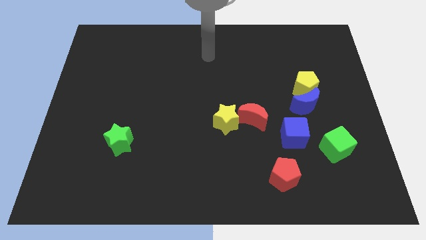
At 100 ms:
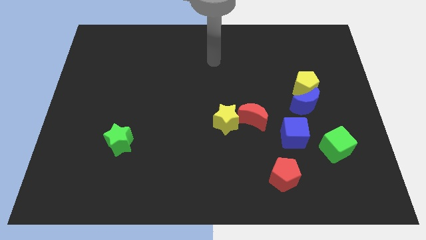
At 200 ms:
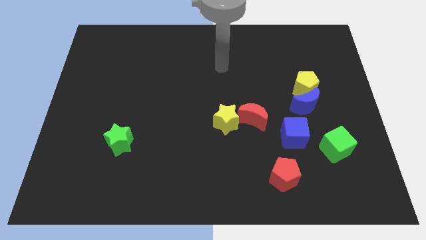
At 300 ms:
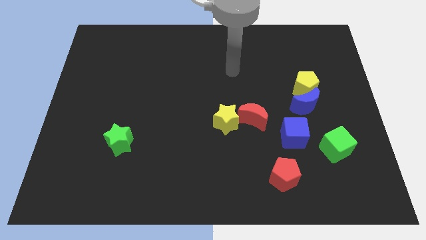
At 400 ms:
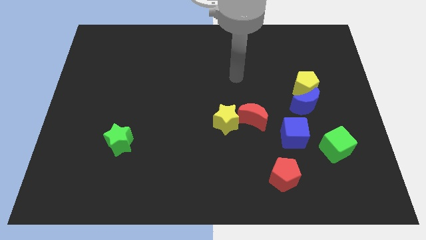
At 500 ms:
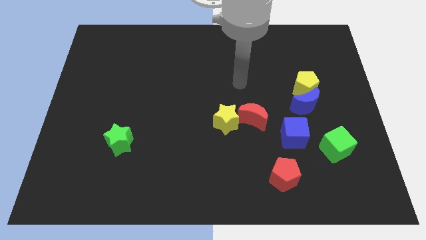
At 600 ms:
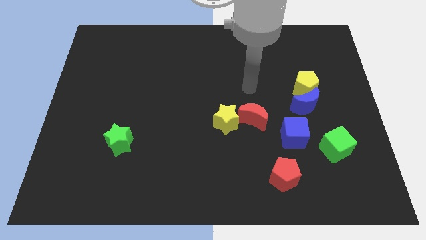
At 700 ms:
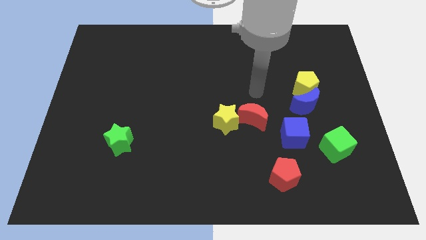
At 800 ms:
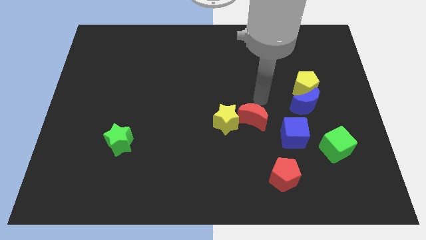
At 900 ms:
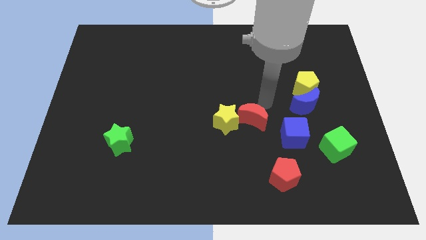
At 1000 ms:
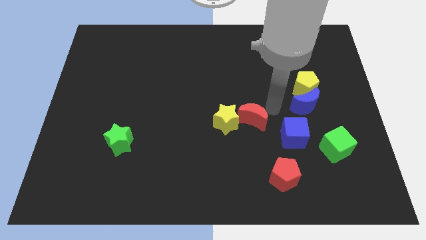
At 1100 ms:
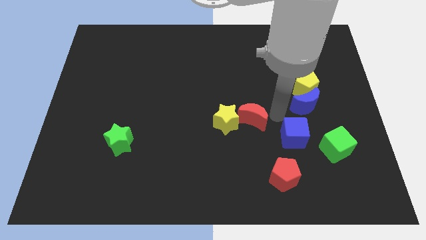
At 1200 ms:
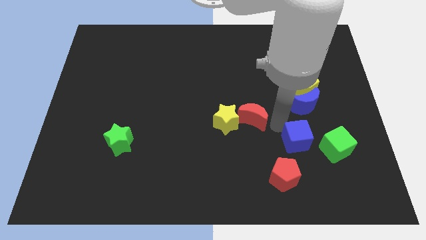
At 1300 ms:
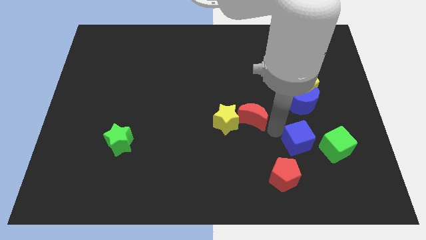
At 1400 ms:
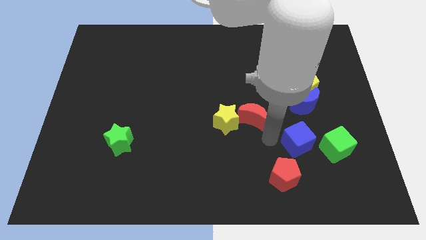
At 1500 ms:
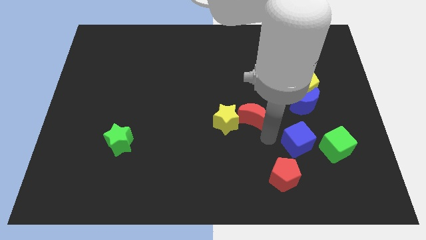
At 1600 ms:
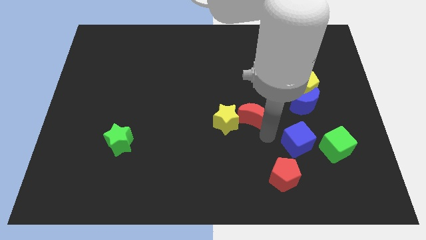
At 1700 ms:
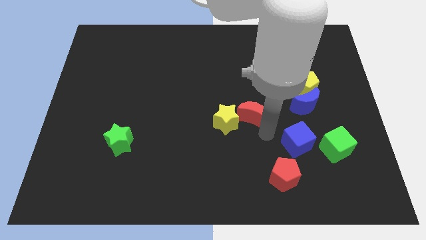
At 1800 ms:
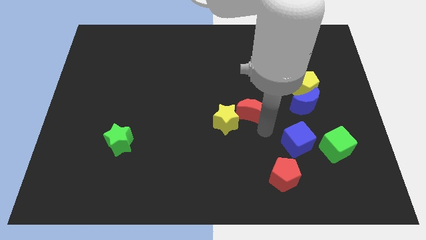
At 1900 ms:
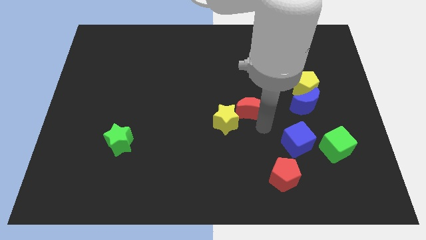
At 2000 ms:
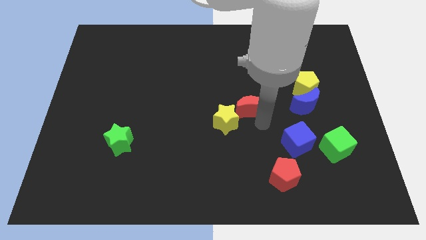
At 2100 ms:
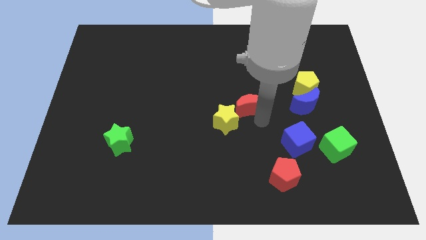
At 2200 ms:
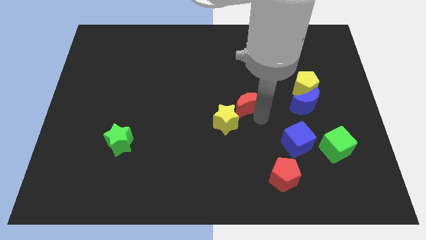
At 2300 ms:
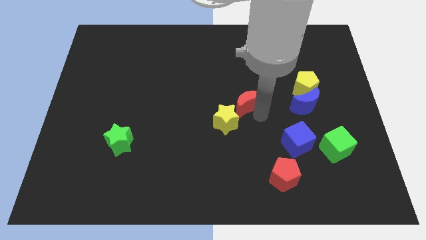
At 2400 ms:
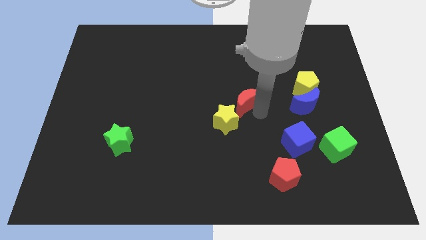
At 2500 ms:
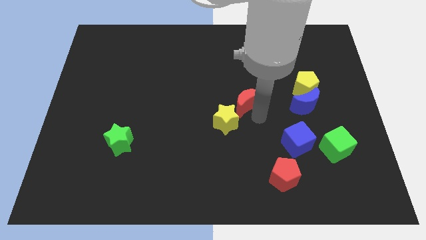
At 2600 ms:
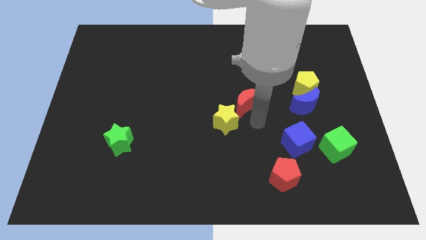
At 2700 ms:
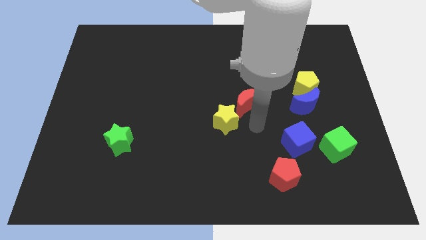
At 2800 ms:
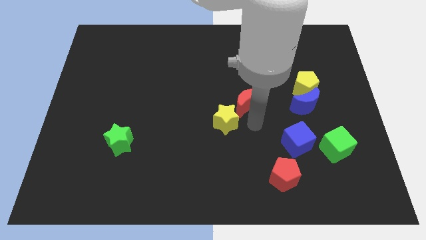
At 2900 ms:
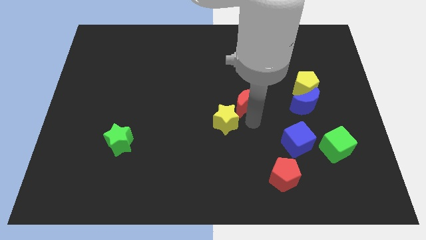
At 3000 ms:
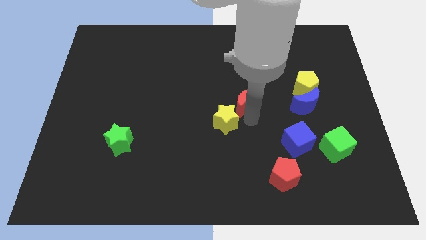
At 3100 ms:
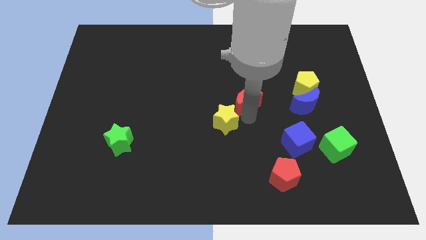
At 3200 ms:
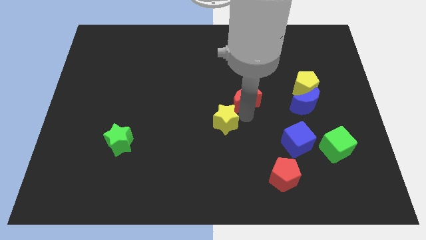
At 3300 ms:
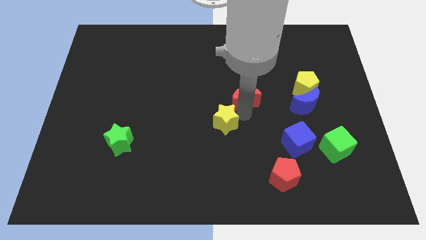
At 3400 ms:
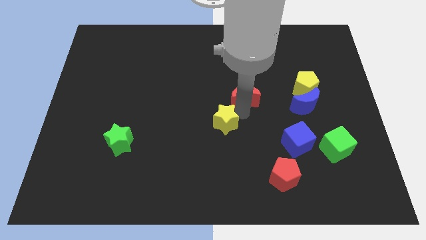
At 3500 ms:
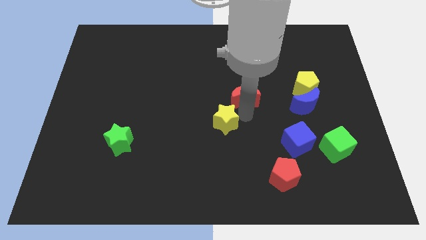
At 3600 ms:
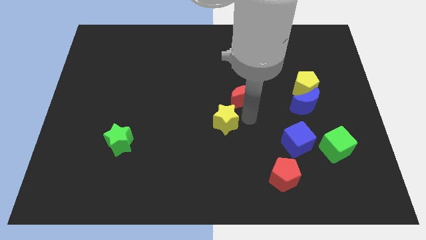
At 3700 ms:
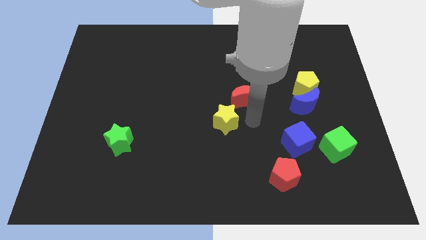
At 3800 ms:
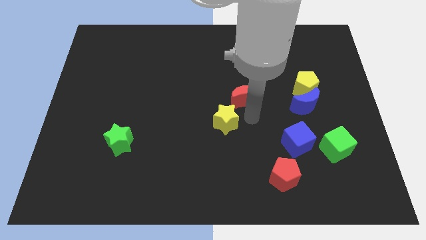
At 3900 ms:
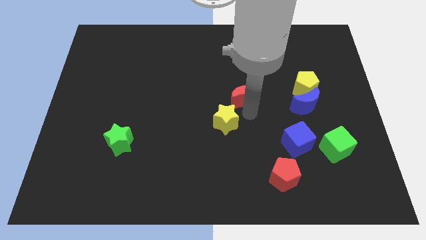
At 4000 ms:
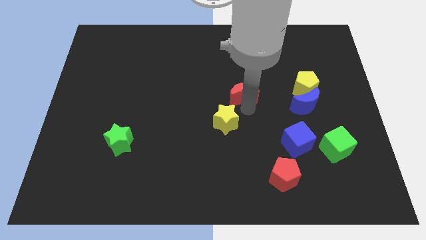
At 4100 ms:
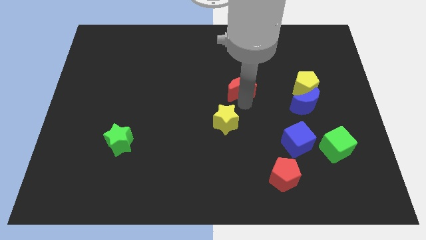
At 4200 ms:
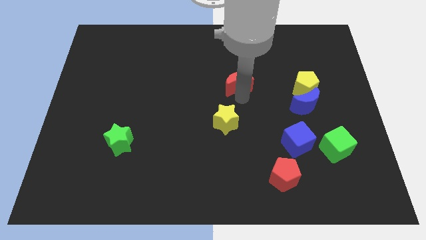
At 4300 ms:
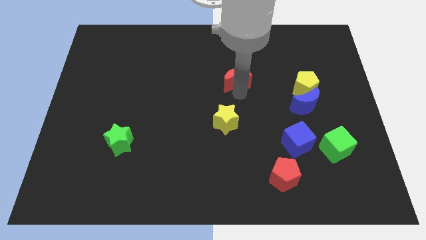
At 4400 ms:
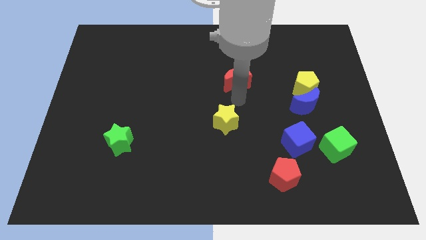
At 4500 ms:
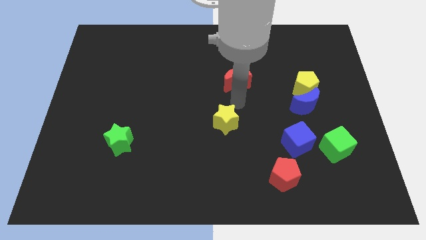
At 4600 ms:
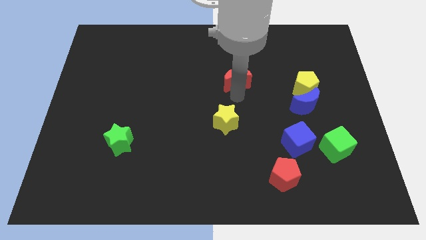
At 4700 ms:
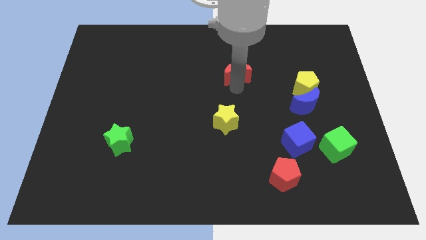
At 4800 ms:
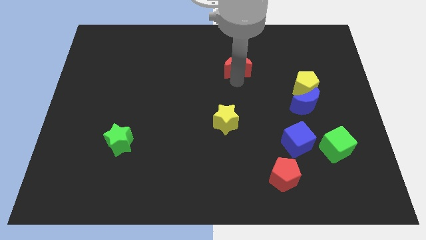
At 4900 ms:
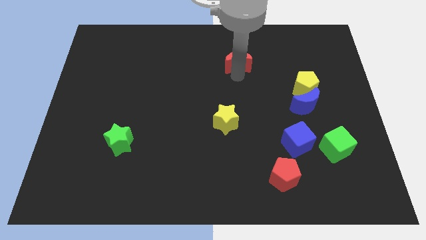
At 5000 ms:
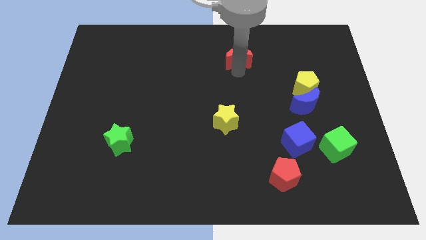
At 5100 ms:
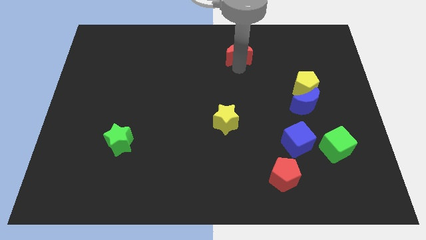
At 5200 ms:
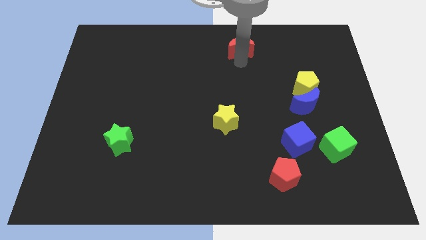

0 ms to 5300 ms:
put the red moon to the towards your base

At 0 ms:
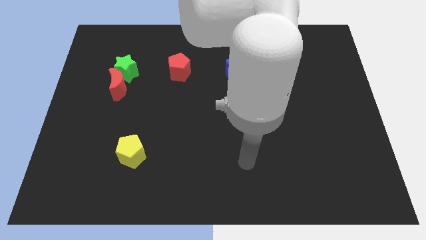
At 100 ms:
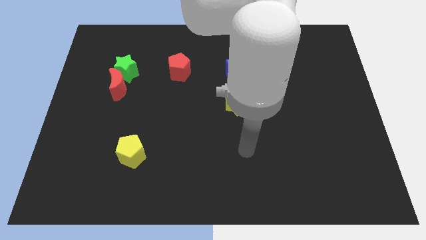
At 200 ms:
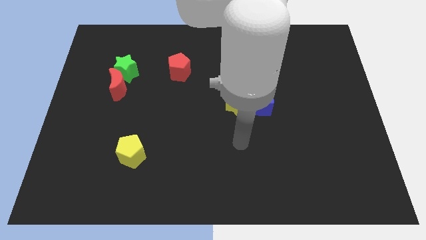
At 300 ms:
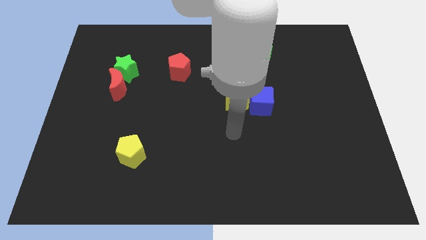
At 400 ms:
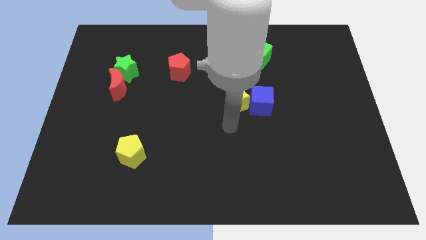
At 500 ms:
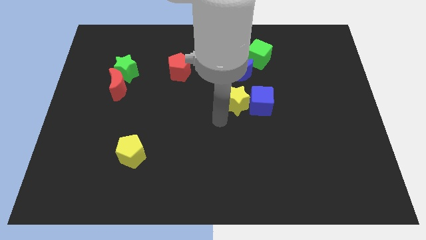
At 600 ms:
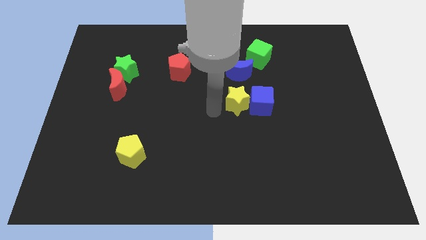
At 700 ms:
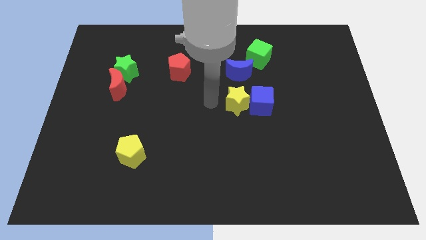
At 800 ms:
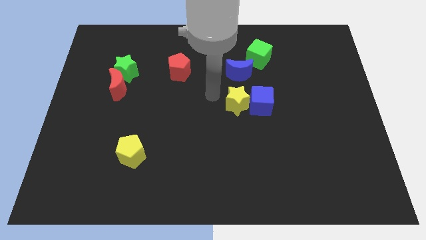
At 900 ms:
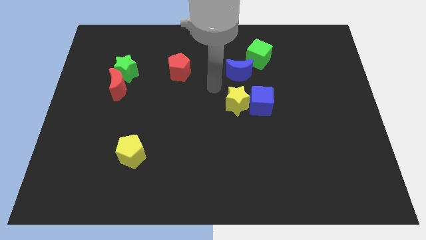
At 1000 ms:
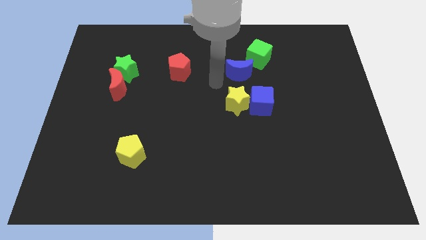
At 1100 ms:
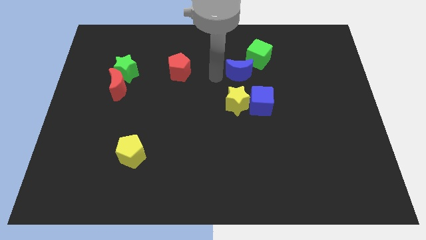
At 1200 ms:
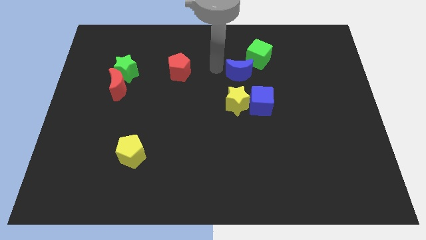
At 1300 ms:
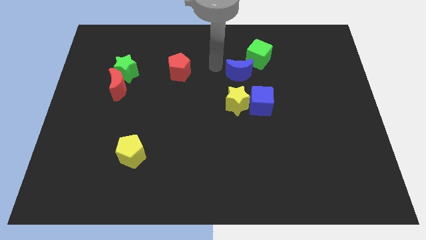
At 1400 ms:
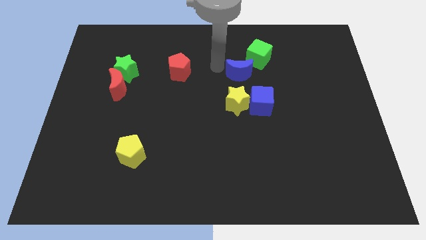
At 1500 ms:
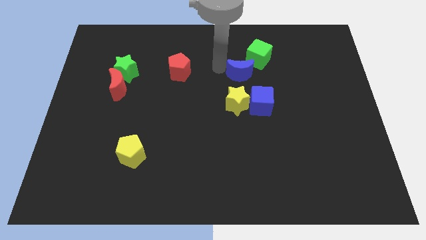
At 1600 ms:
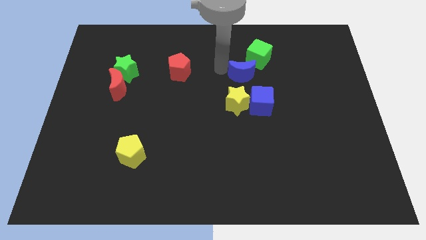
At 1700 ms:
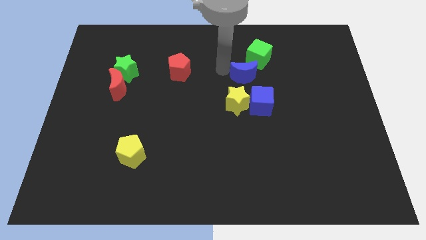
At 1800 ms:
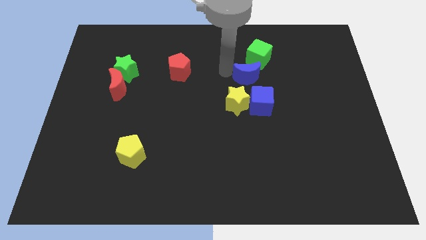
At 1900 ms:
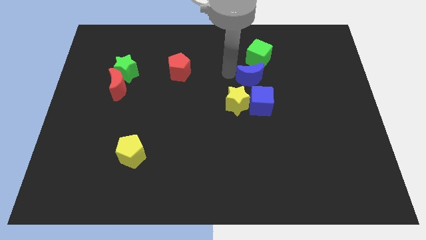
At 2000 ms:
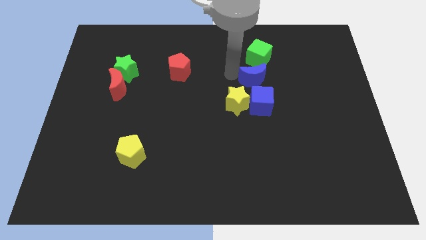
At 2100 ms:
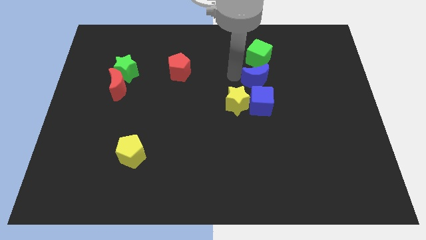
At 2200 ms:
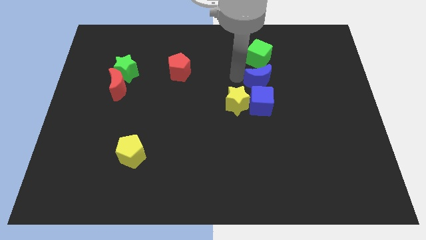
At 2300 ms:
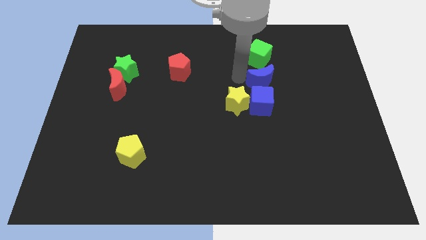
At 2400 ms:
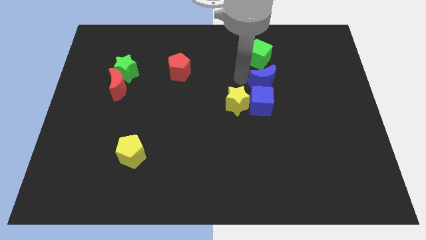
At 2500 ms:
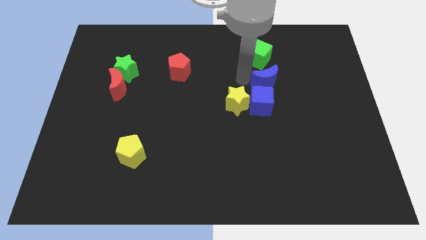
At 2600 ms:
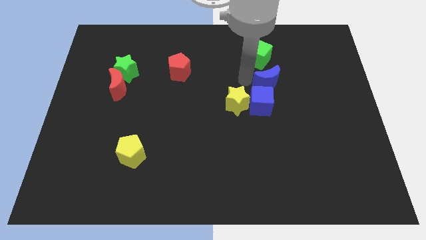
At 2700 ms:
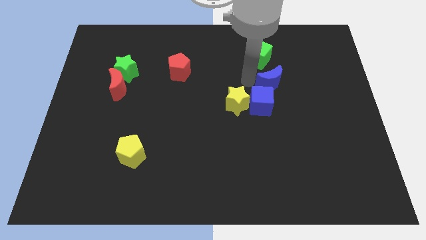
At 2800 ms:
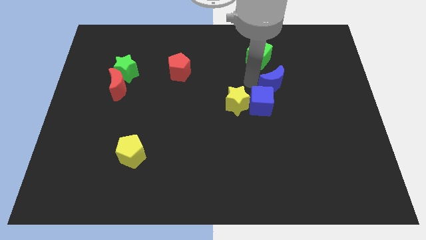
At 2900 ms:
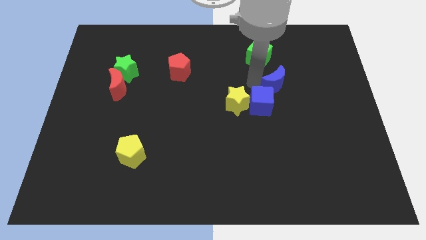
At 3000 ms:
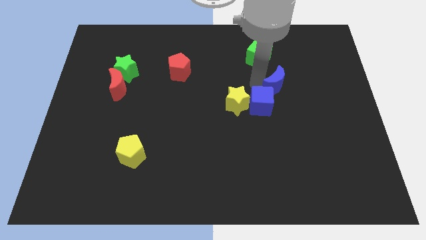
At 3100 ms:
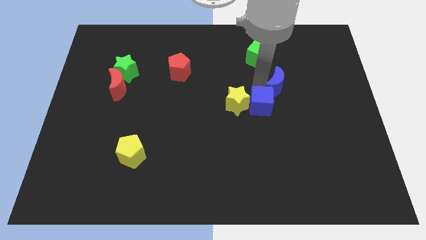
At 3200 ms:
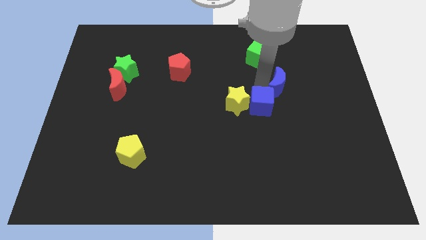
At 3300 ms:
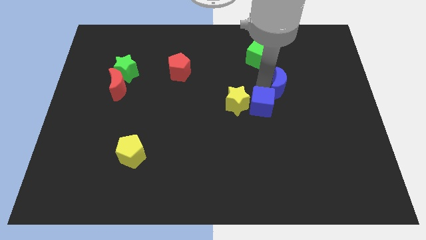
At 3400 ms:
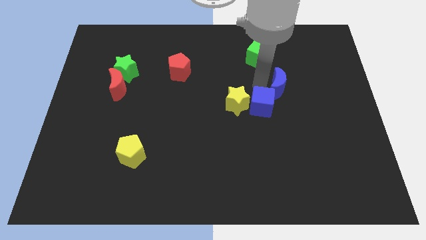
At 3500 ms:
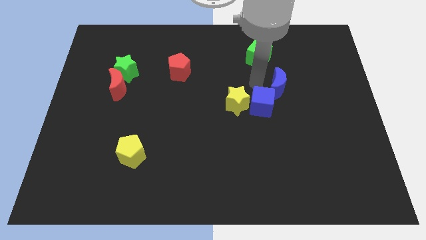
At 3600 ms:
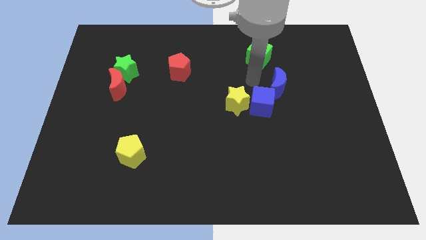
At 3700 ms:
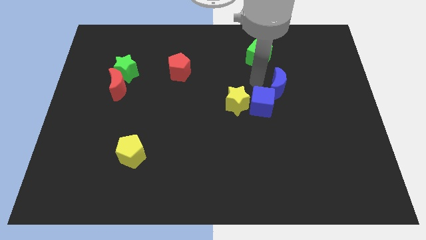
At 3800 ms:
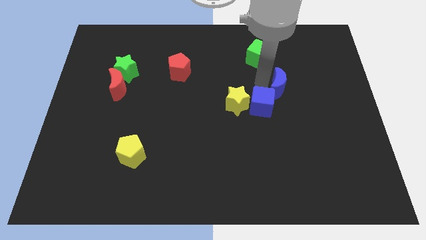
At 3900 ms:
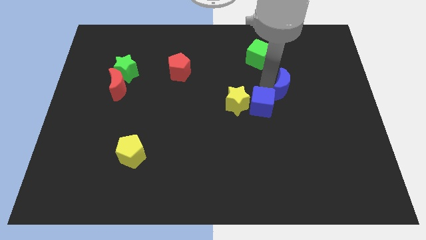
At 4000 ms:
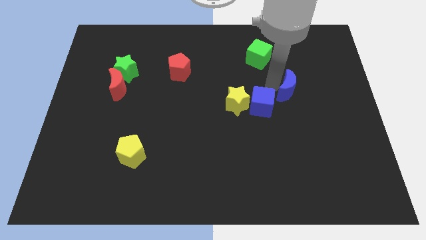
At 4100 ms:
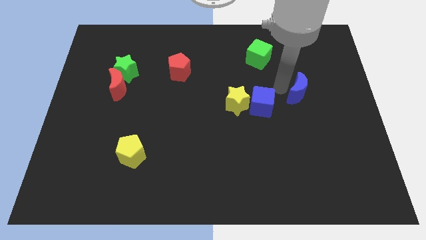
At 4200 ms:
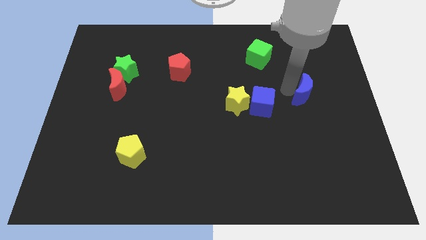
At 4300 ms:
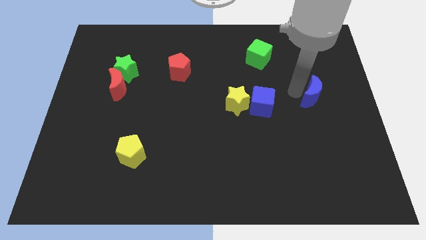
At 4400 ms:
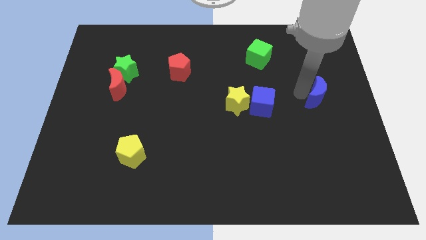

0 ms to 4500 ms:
slide the blue moon to the center right
